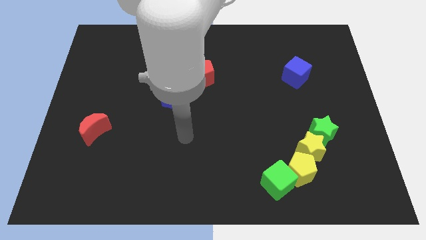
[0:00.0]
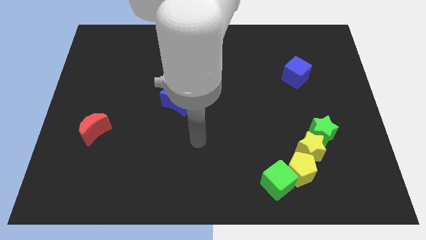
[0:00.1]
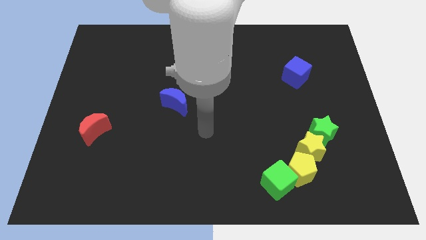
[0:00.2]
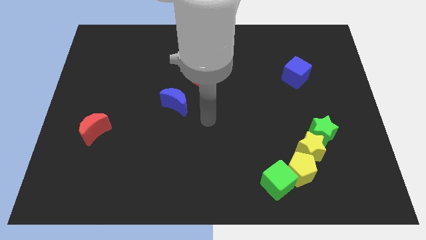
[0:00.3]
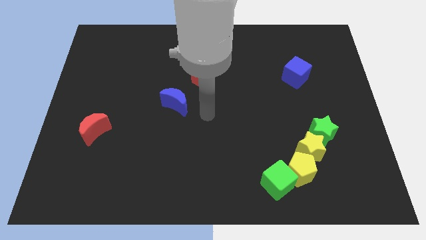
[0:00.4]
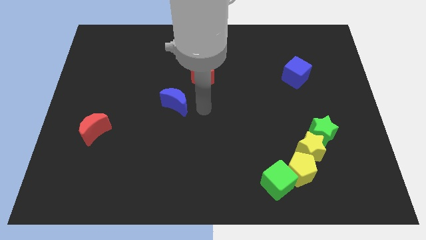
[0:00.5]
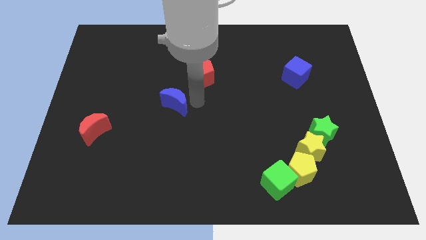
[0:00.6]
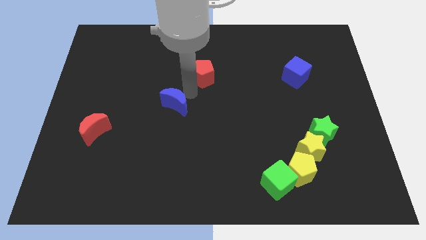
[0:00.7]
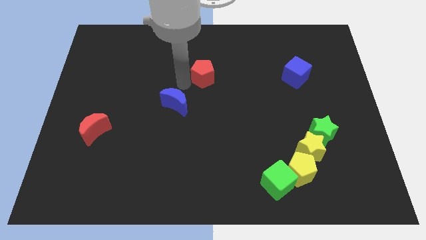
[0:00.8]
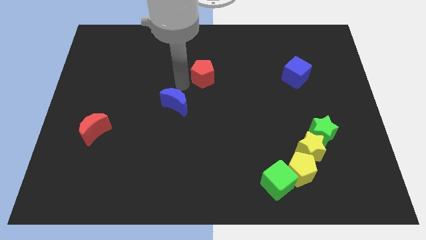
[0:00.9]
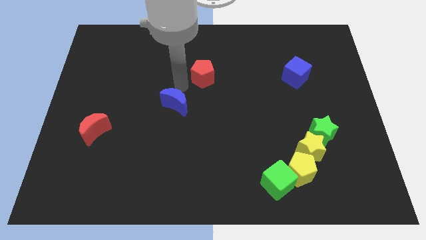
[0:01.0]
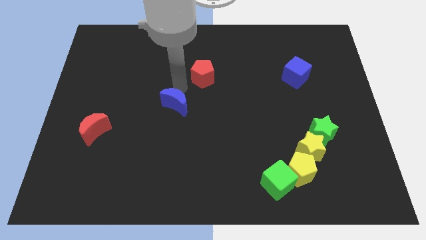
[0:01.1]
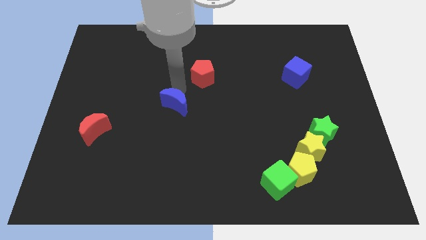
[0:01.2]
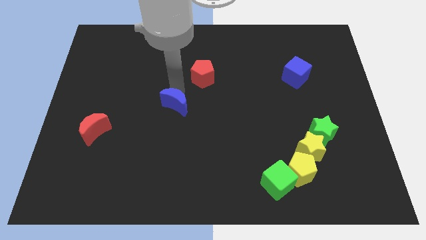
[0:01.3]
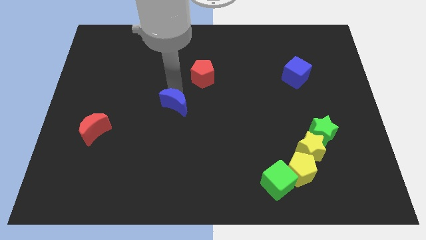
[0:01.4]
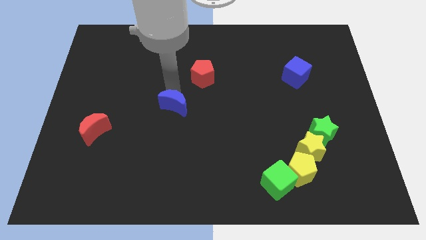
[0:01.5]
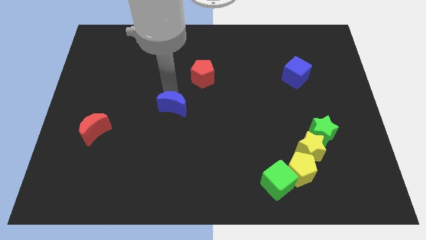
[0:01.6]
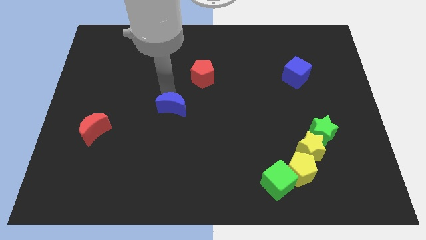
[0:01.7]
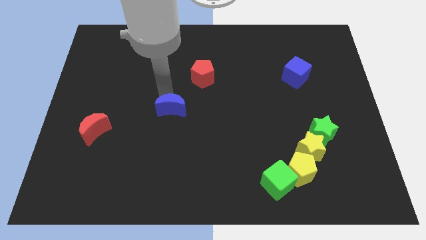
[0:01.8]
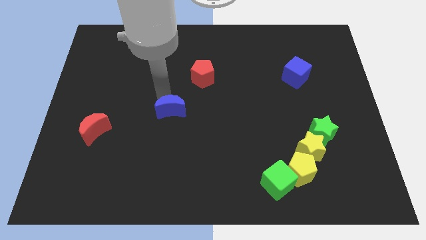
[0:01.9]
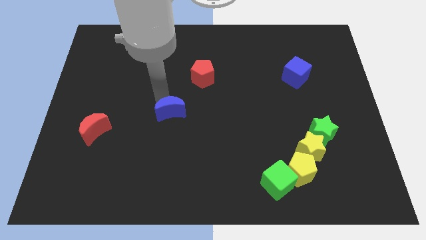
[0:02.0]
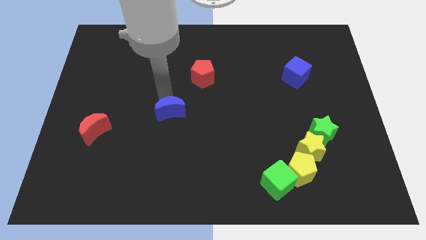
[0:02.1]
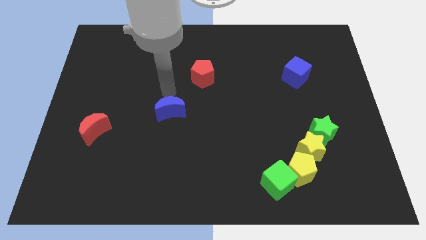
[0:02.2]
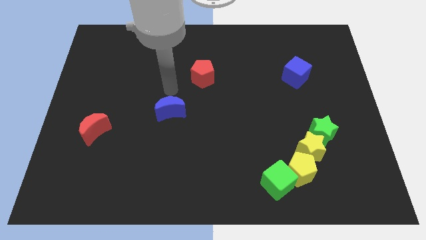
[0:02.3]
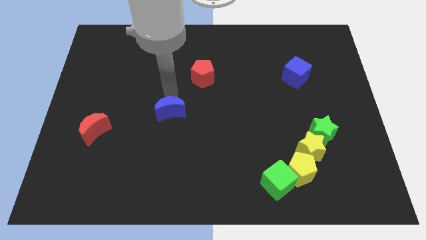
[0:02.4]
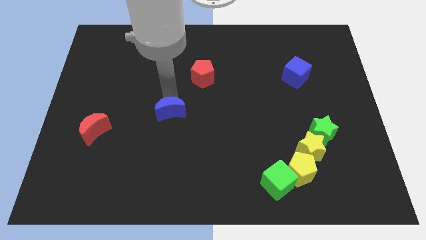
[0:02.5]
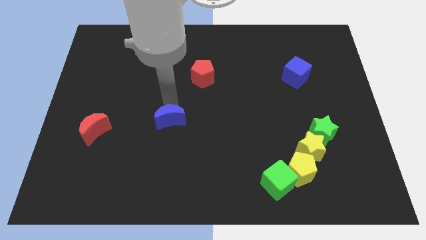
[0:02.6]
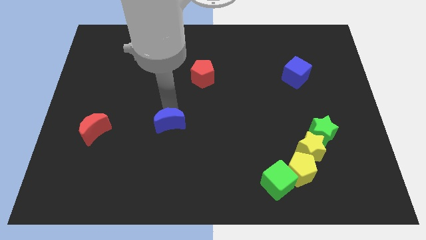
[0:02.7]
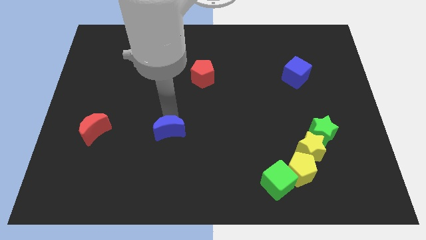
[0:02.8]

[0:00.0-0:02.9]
move the blue moon down a little bit

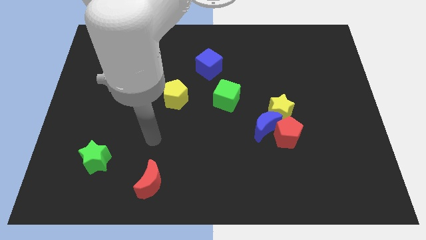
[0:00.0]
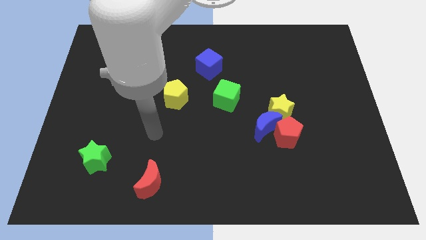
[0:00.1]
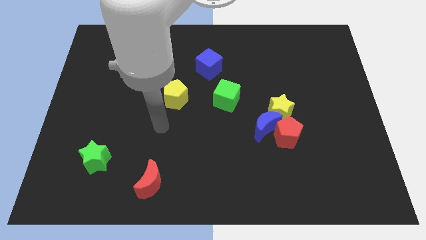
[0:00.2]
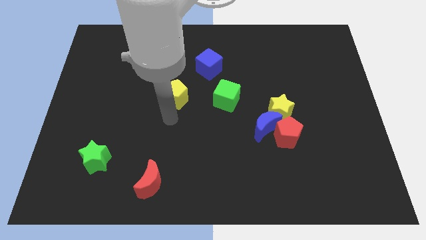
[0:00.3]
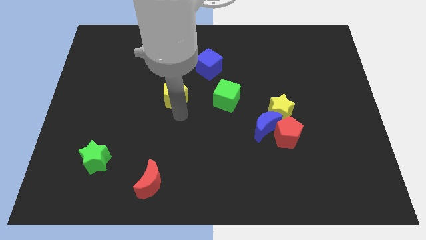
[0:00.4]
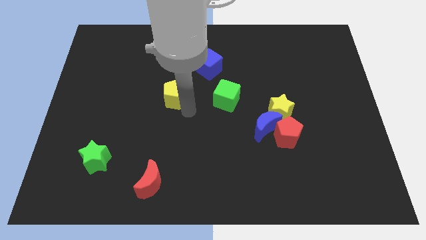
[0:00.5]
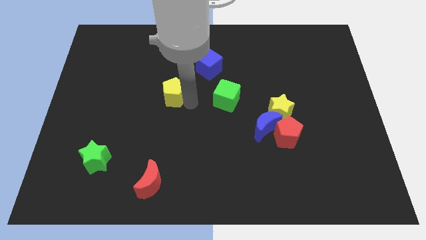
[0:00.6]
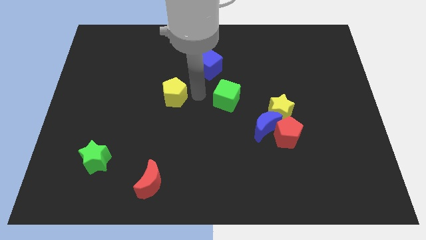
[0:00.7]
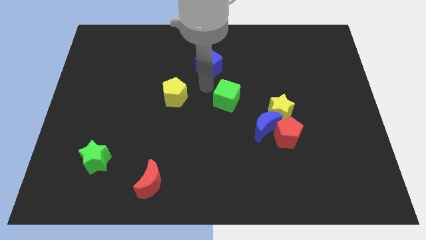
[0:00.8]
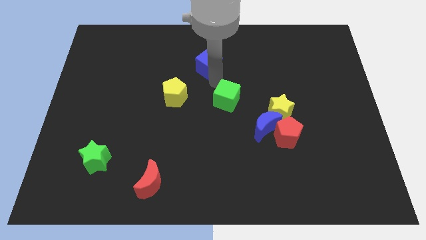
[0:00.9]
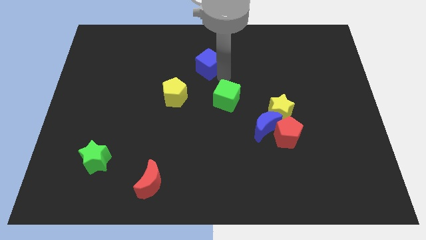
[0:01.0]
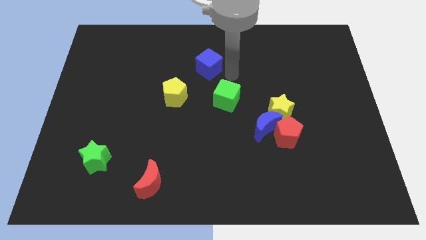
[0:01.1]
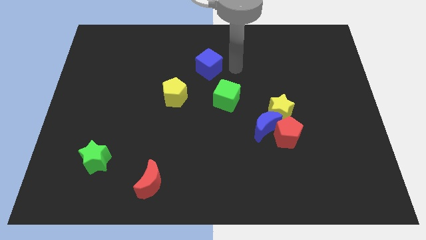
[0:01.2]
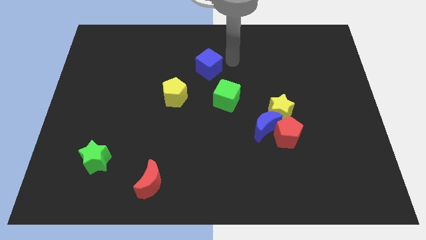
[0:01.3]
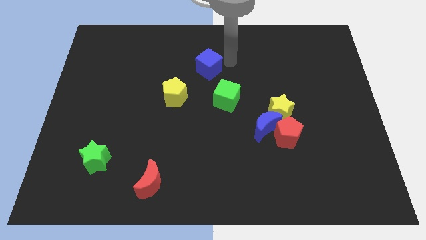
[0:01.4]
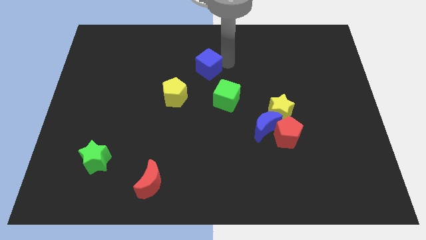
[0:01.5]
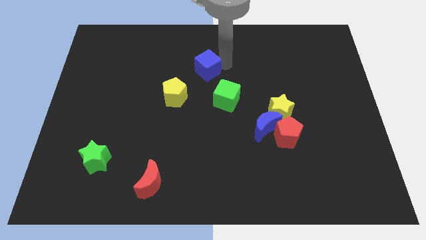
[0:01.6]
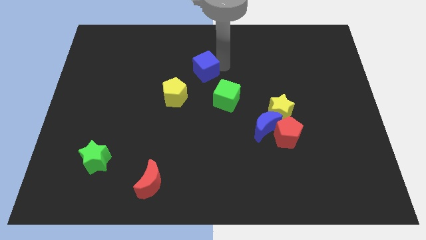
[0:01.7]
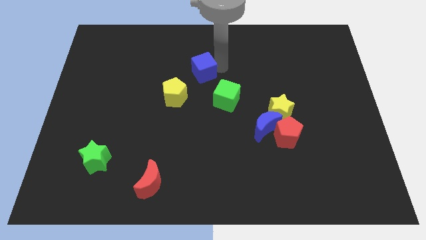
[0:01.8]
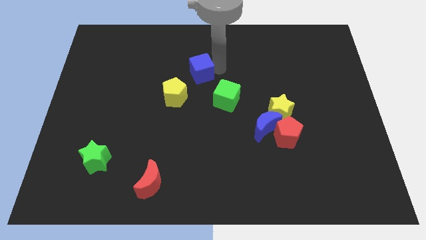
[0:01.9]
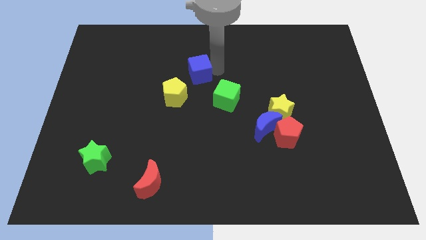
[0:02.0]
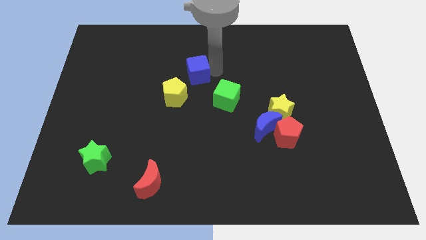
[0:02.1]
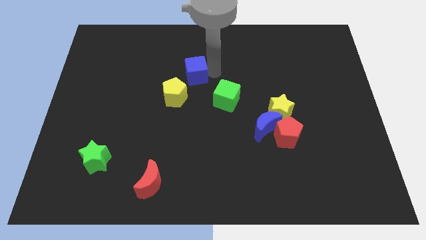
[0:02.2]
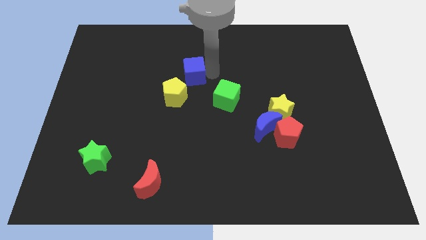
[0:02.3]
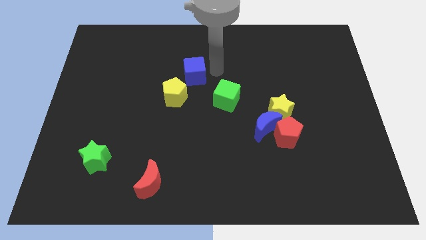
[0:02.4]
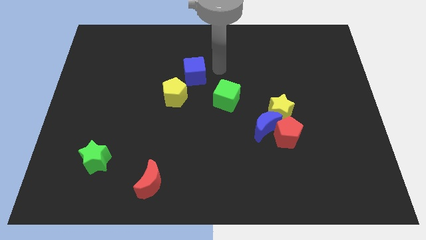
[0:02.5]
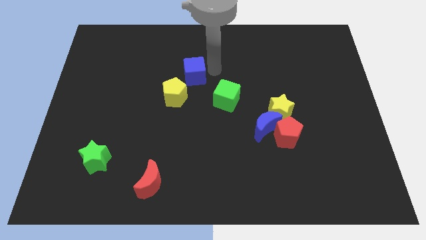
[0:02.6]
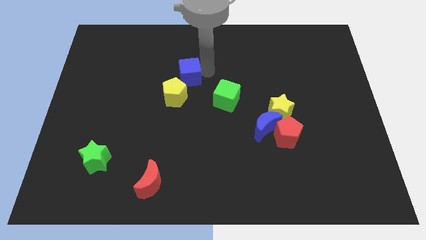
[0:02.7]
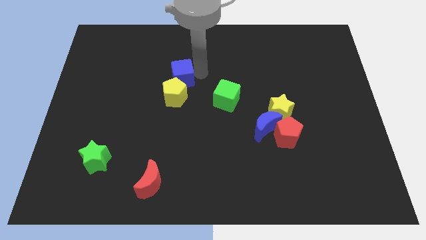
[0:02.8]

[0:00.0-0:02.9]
slide the blue cube downwards and to the left a little

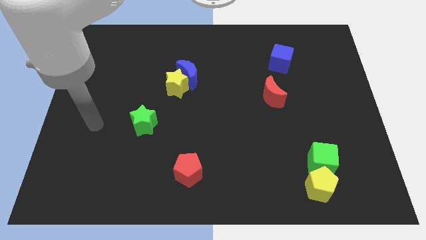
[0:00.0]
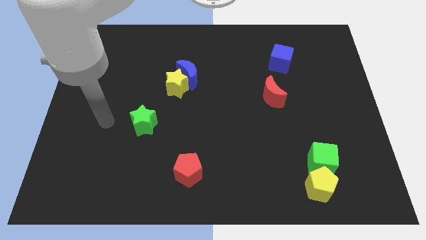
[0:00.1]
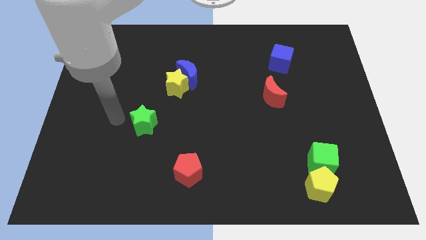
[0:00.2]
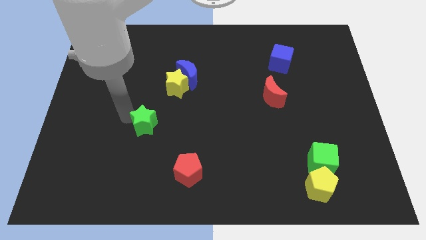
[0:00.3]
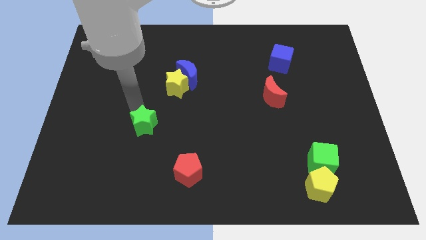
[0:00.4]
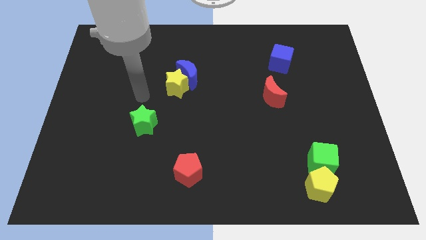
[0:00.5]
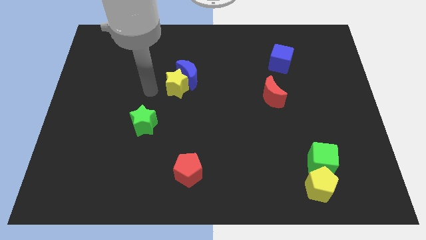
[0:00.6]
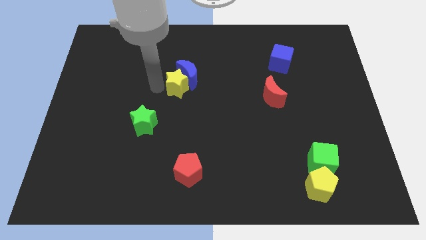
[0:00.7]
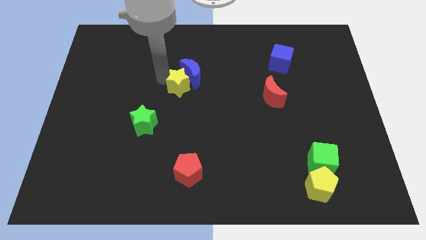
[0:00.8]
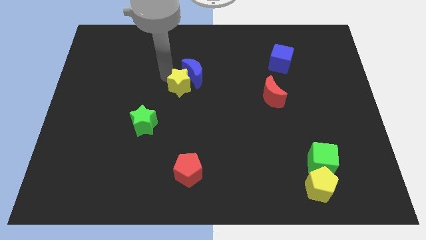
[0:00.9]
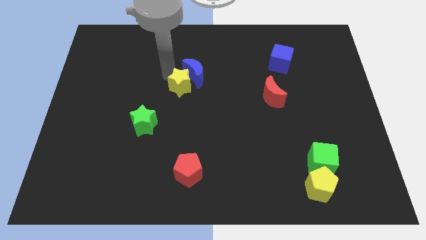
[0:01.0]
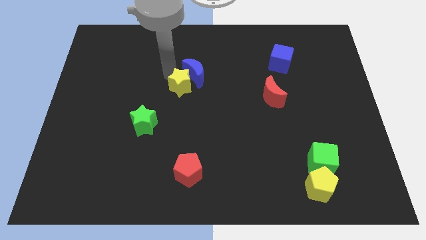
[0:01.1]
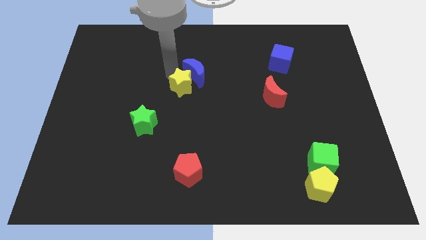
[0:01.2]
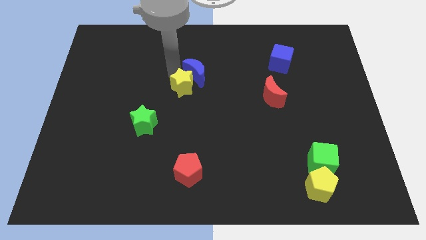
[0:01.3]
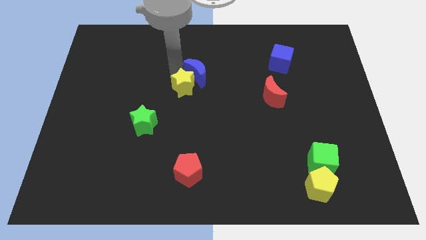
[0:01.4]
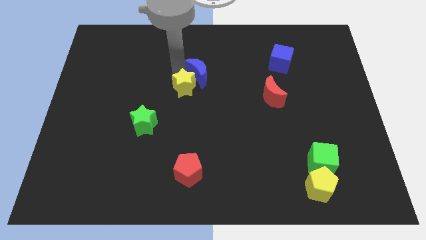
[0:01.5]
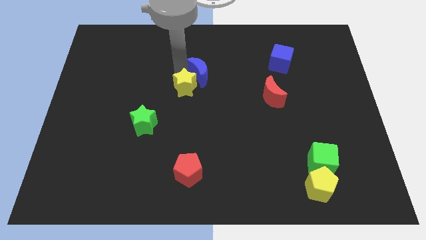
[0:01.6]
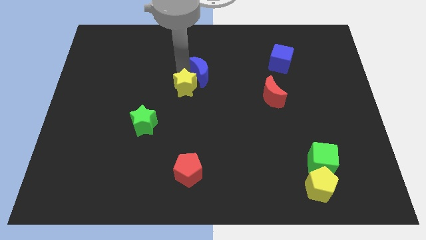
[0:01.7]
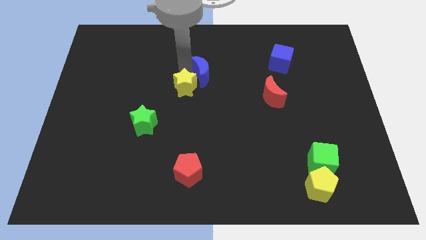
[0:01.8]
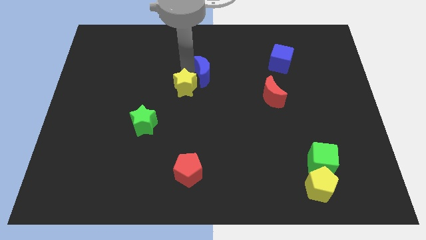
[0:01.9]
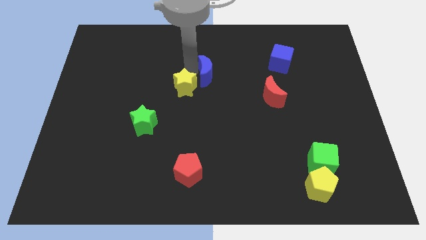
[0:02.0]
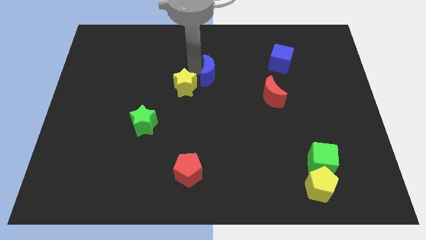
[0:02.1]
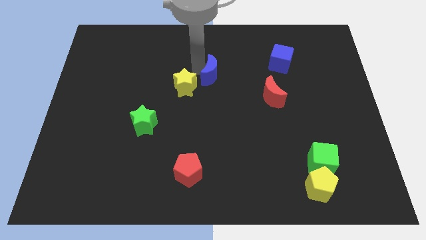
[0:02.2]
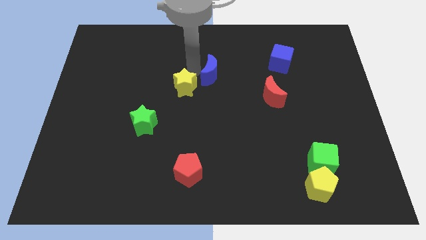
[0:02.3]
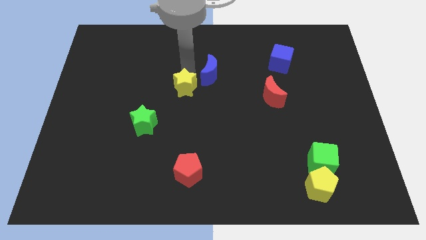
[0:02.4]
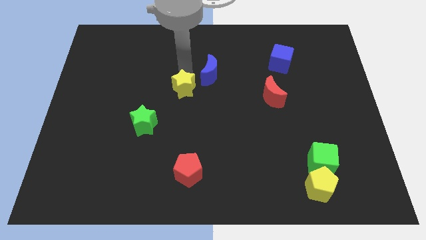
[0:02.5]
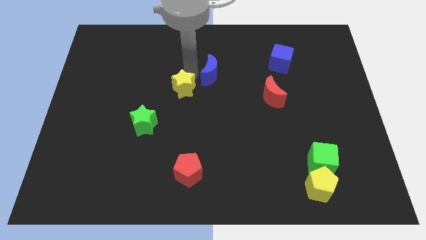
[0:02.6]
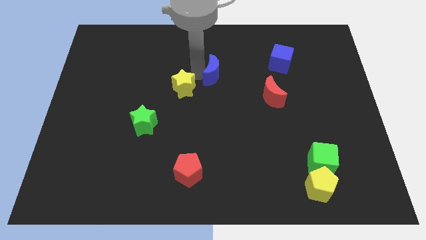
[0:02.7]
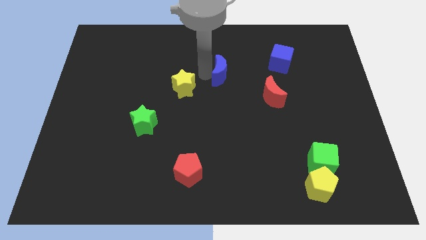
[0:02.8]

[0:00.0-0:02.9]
slightly push the blue moon right
